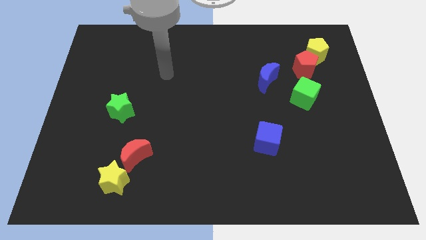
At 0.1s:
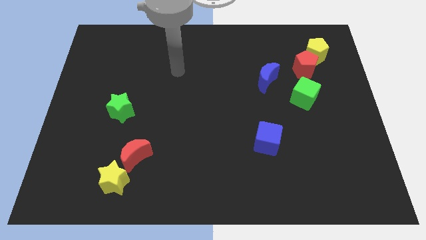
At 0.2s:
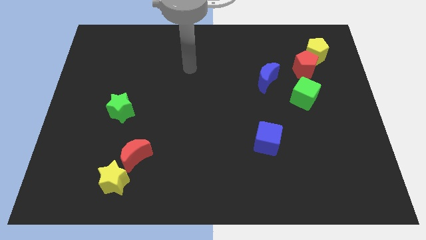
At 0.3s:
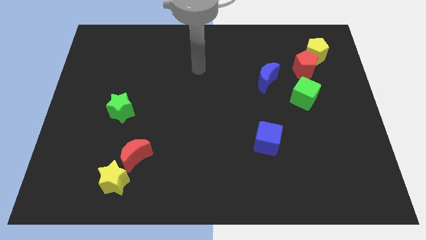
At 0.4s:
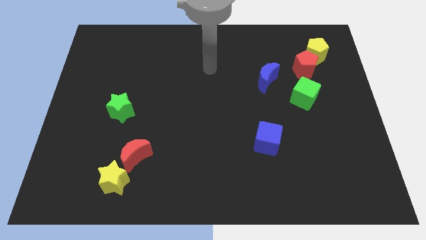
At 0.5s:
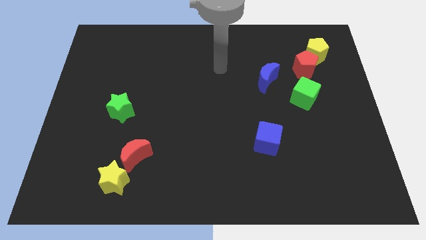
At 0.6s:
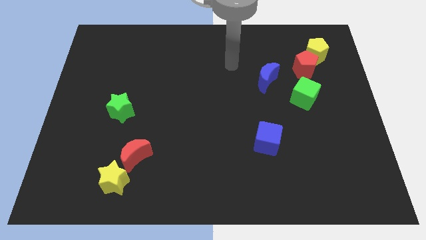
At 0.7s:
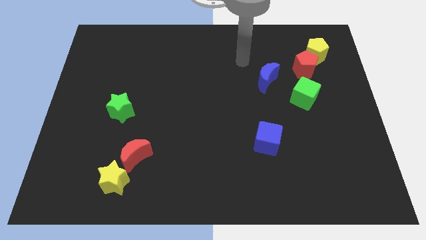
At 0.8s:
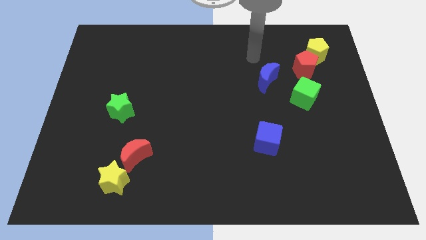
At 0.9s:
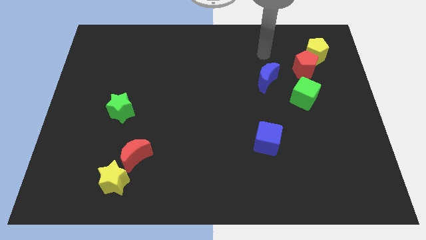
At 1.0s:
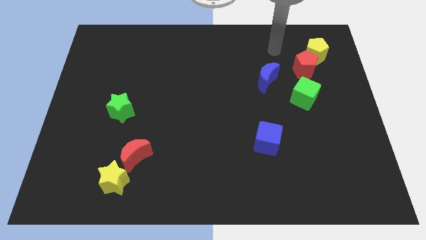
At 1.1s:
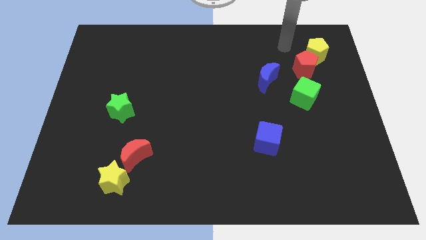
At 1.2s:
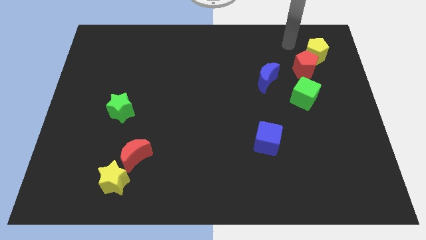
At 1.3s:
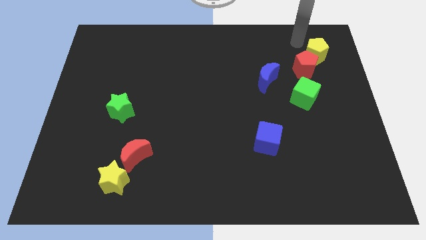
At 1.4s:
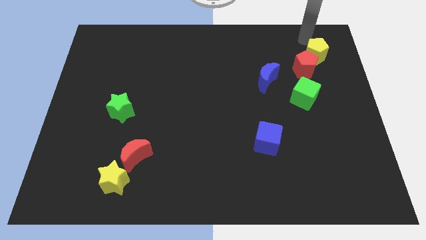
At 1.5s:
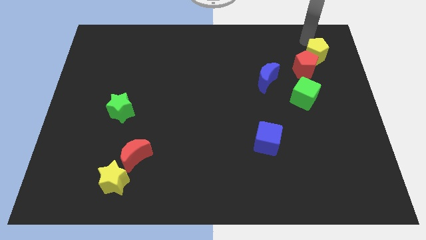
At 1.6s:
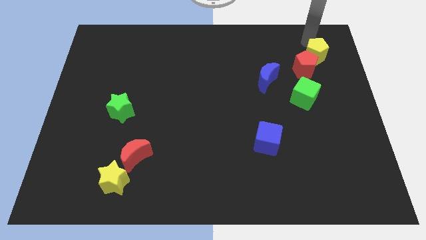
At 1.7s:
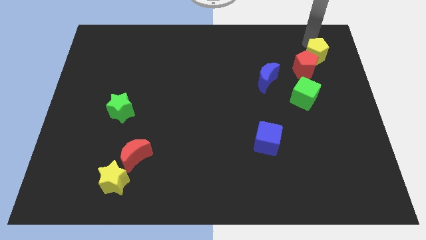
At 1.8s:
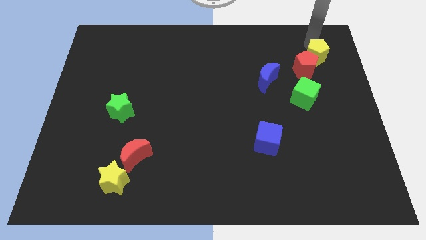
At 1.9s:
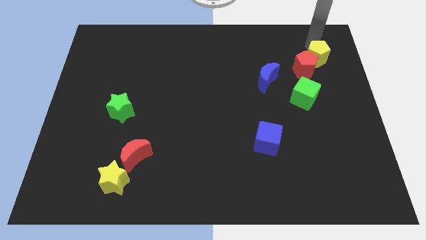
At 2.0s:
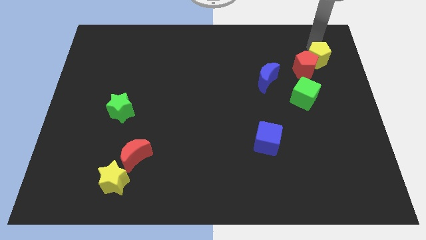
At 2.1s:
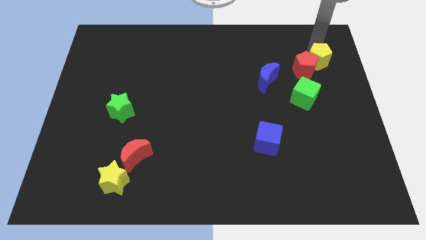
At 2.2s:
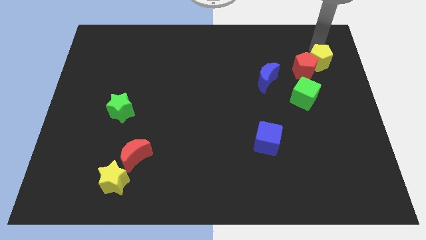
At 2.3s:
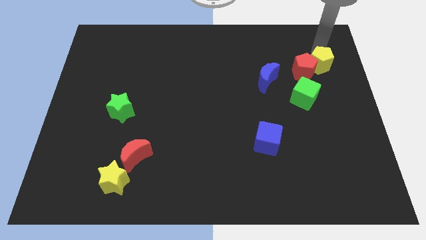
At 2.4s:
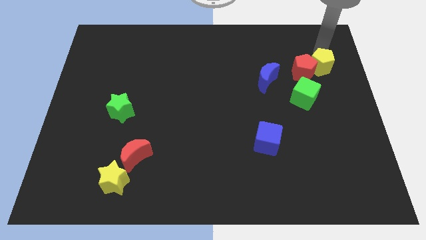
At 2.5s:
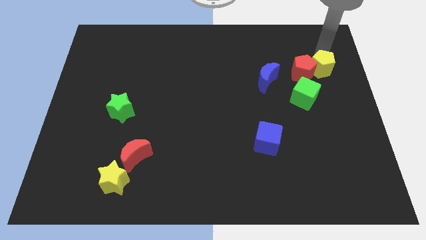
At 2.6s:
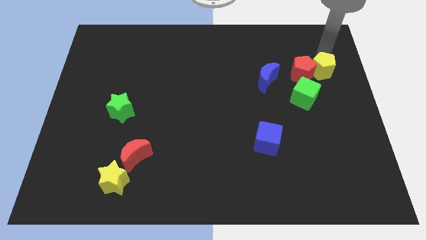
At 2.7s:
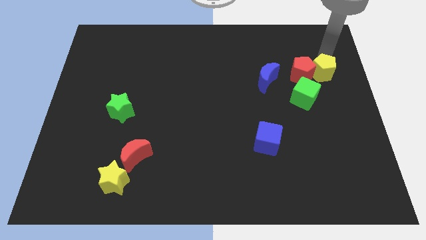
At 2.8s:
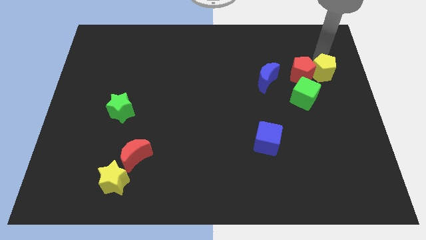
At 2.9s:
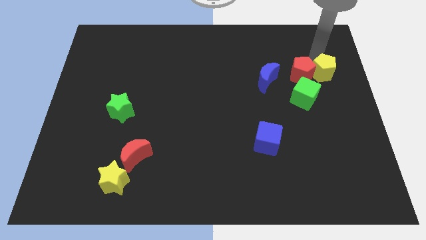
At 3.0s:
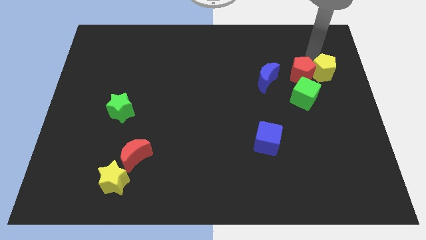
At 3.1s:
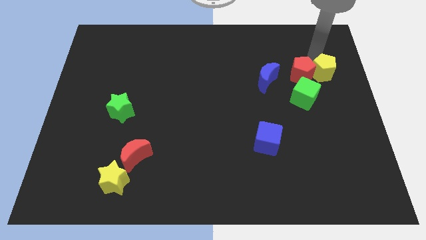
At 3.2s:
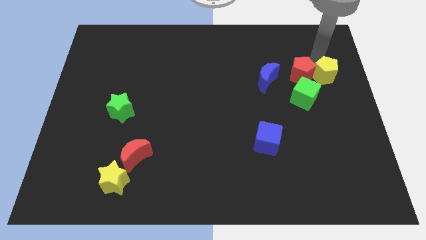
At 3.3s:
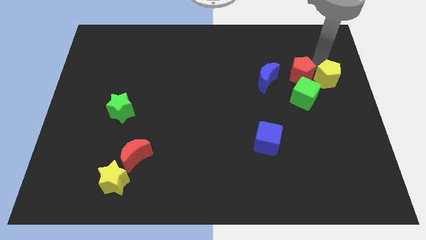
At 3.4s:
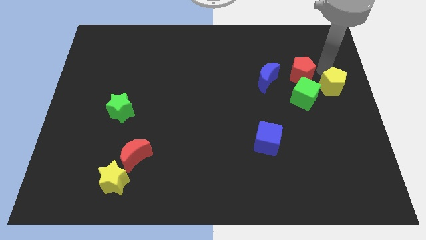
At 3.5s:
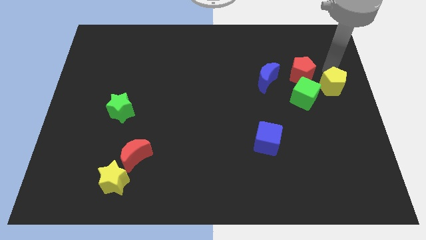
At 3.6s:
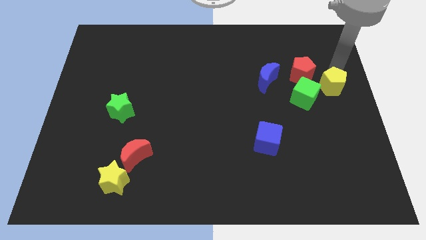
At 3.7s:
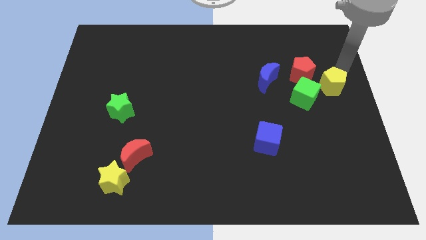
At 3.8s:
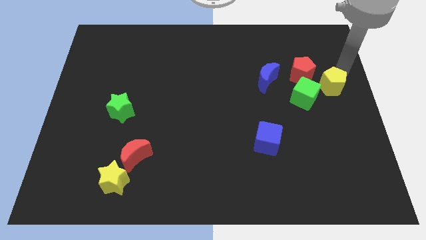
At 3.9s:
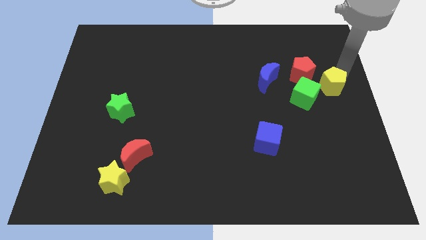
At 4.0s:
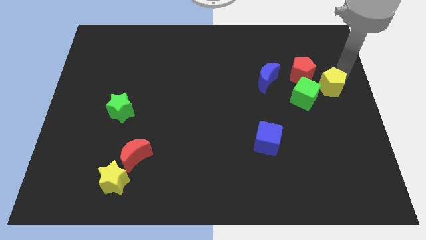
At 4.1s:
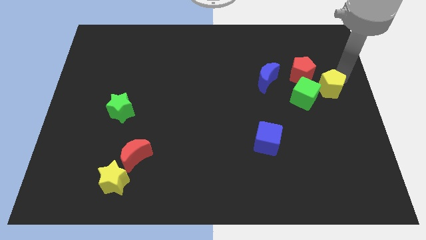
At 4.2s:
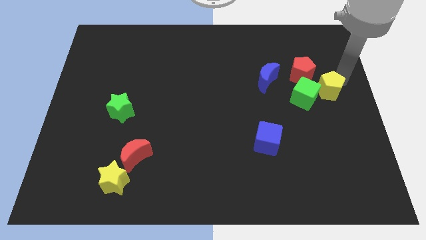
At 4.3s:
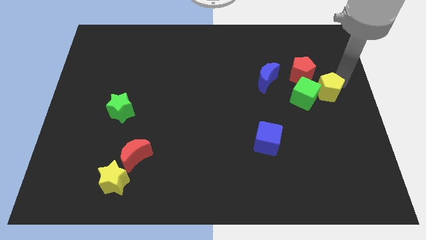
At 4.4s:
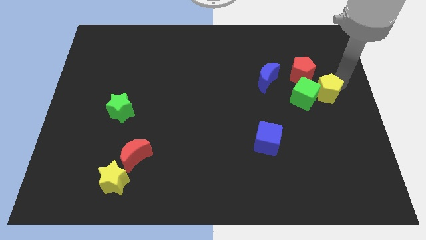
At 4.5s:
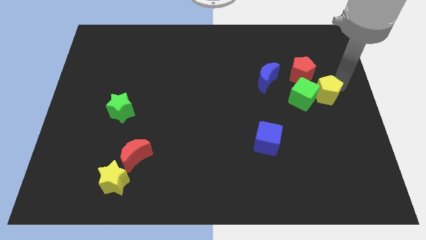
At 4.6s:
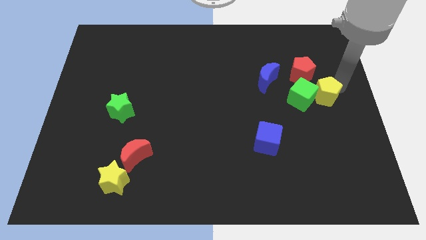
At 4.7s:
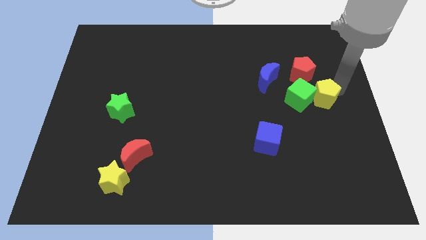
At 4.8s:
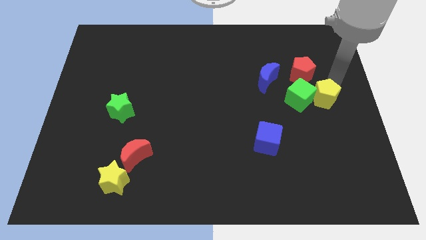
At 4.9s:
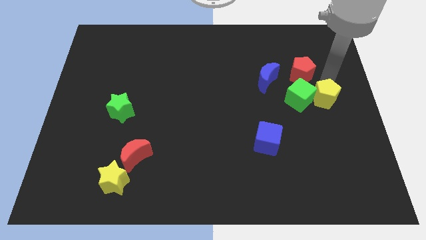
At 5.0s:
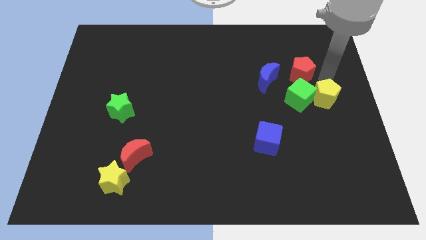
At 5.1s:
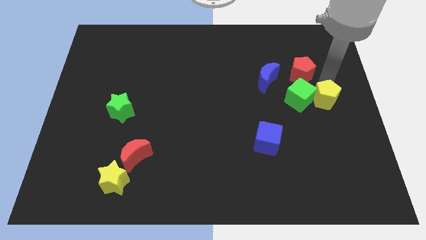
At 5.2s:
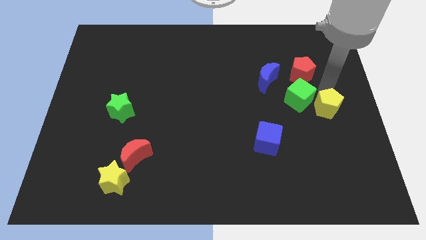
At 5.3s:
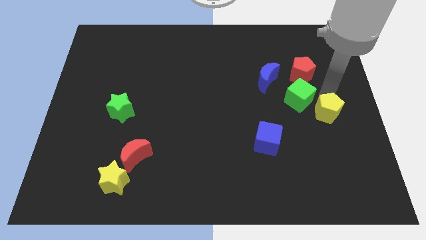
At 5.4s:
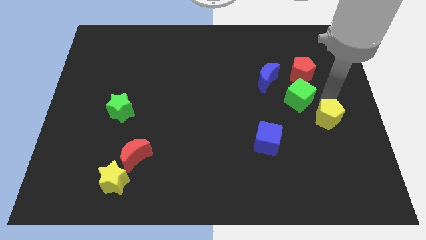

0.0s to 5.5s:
move the yellow pentagon down

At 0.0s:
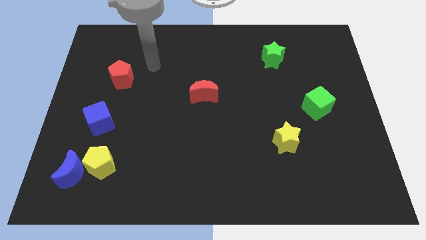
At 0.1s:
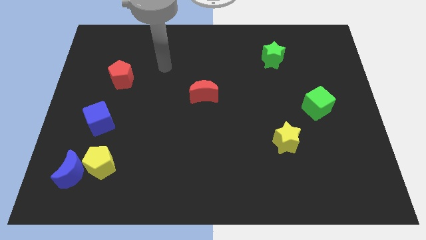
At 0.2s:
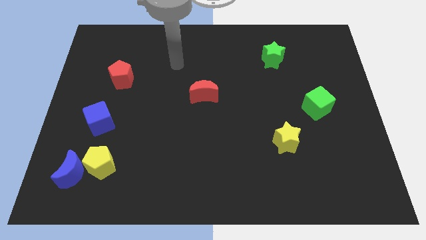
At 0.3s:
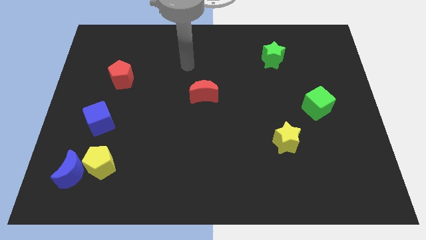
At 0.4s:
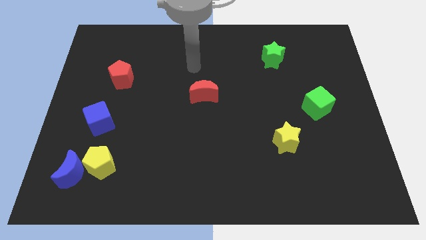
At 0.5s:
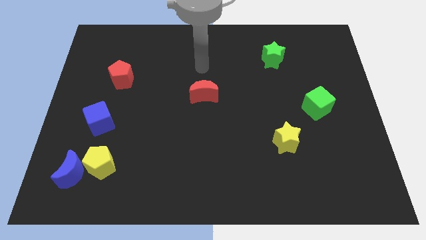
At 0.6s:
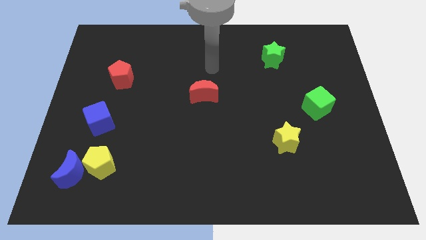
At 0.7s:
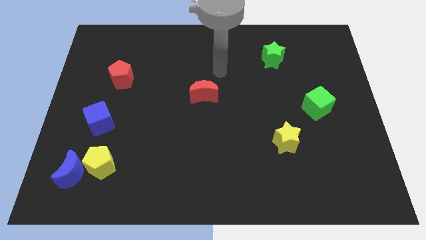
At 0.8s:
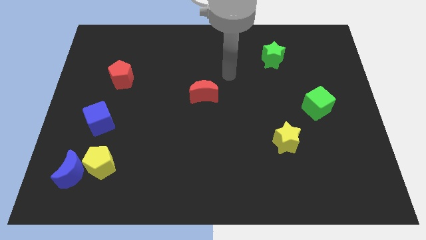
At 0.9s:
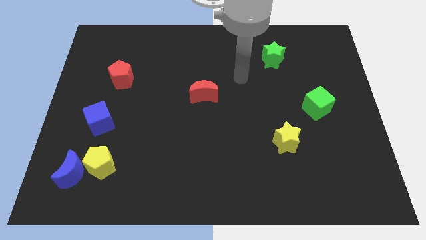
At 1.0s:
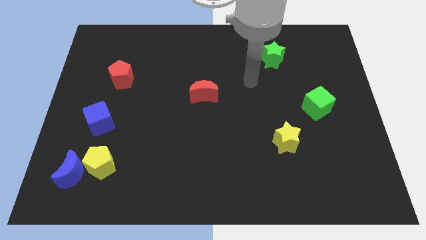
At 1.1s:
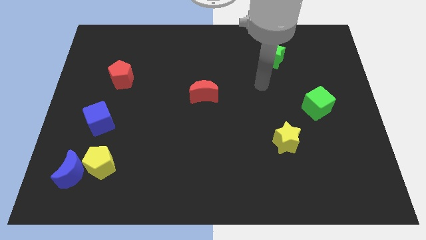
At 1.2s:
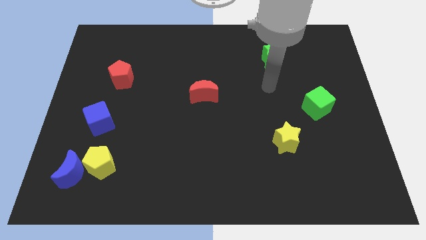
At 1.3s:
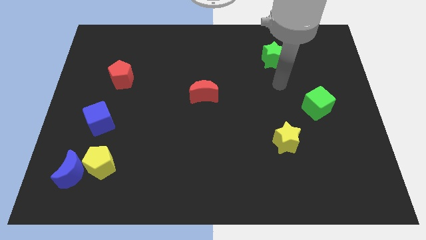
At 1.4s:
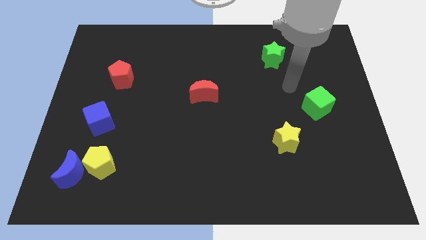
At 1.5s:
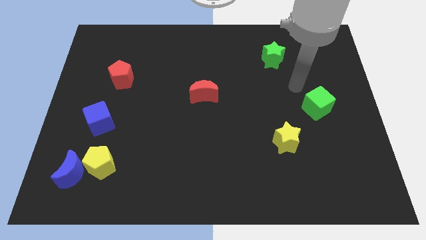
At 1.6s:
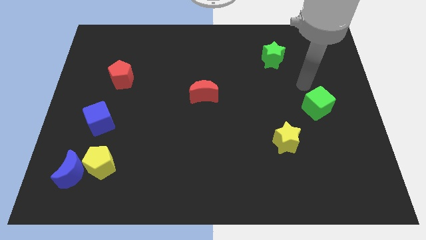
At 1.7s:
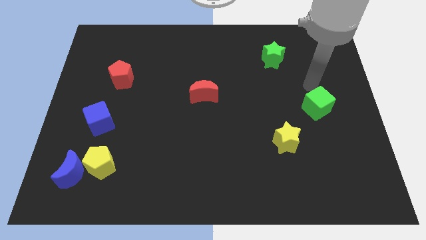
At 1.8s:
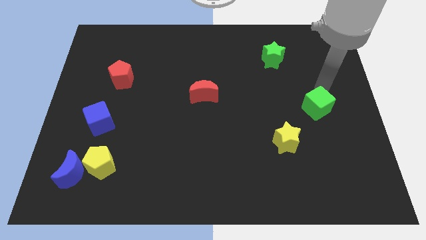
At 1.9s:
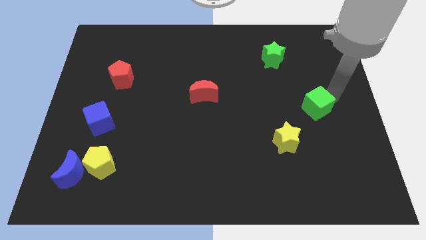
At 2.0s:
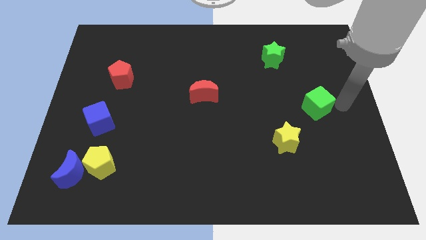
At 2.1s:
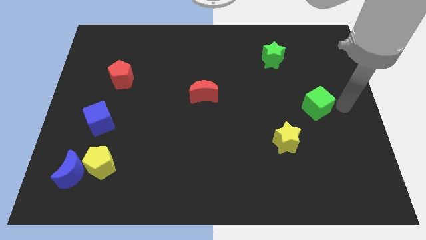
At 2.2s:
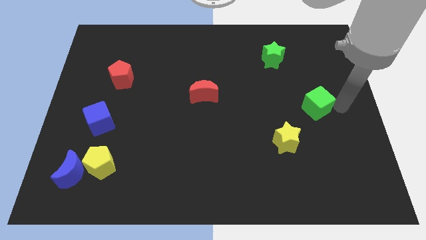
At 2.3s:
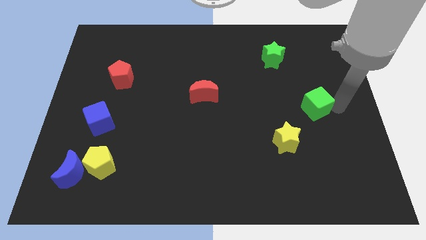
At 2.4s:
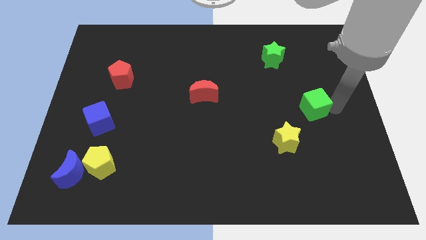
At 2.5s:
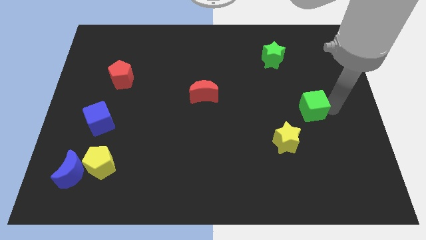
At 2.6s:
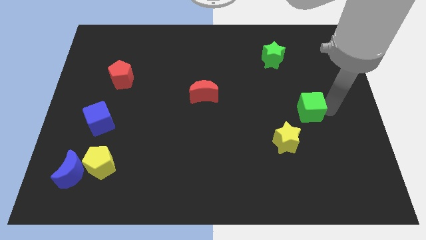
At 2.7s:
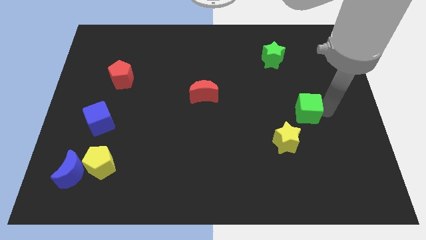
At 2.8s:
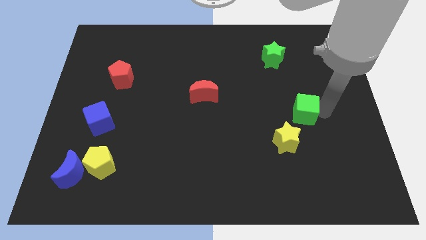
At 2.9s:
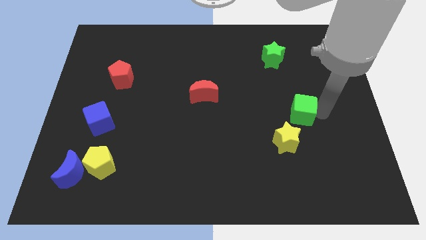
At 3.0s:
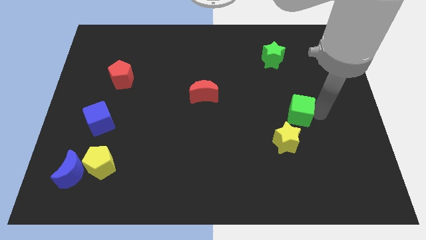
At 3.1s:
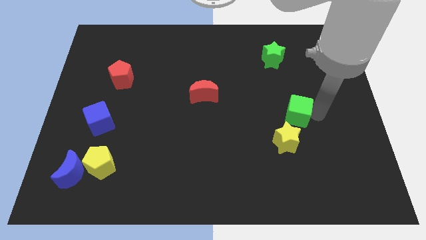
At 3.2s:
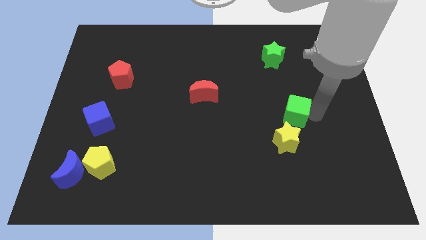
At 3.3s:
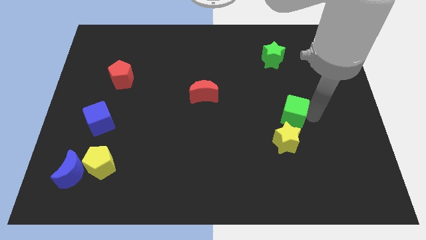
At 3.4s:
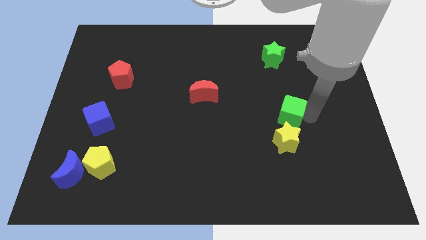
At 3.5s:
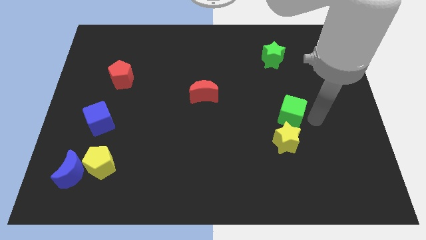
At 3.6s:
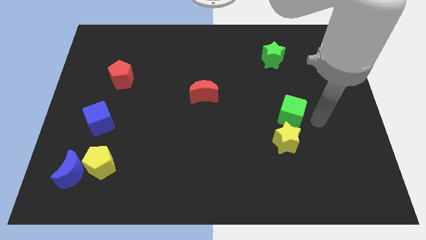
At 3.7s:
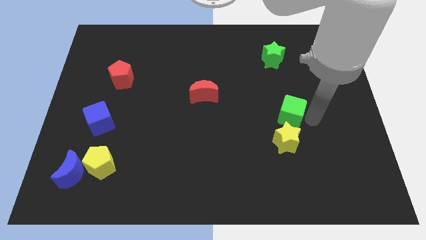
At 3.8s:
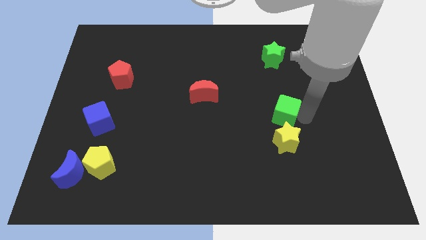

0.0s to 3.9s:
slightly push the green cube to the left
